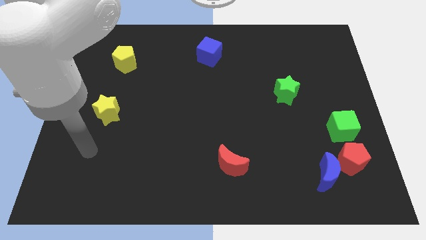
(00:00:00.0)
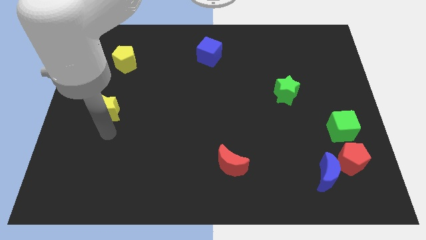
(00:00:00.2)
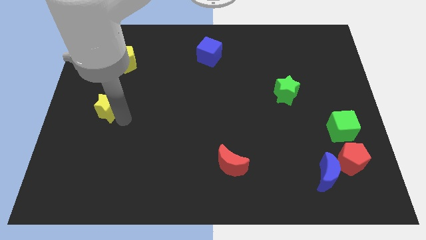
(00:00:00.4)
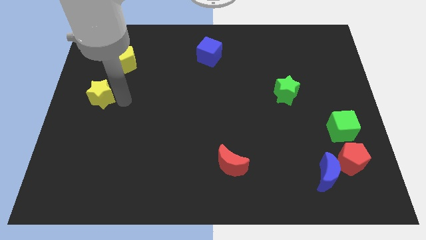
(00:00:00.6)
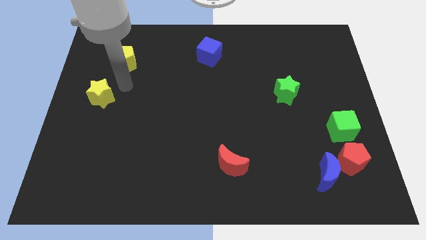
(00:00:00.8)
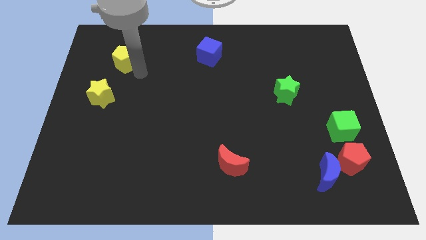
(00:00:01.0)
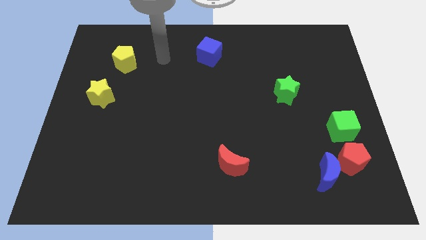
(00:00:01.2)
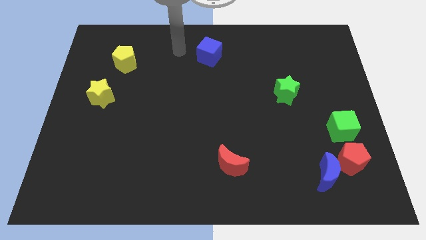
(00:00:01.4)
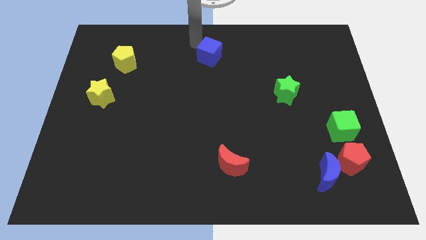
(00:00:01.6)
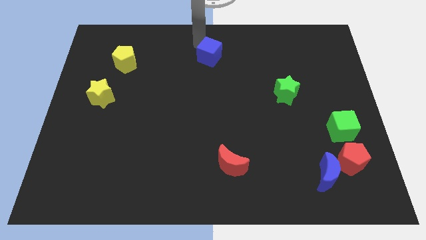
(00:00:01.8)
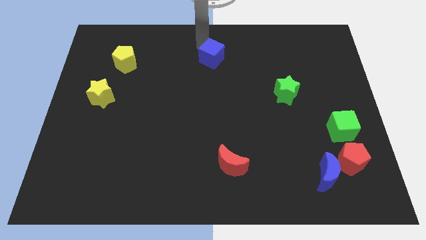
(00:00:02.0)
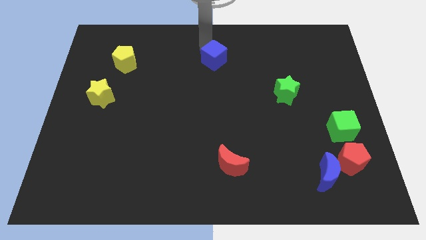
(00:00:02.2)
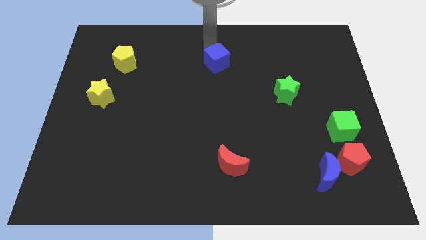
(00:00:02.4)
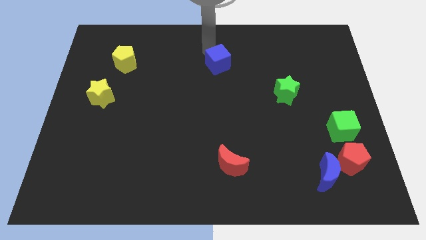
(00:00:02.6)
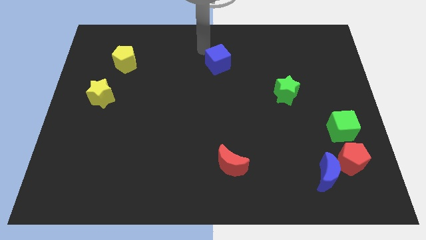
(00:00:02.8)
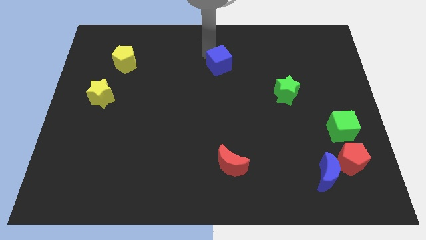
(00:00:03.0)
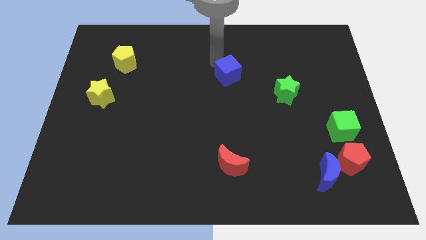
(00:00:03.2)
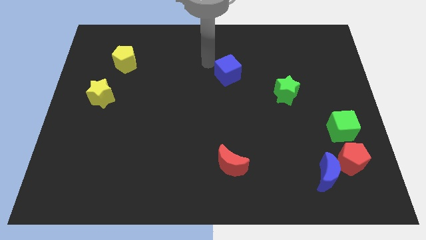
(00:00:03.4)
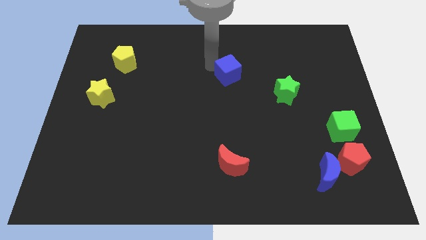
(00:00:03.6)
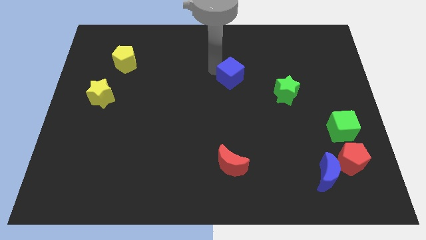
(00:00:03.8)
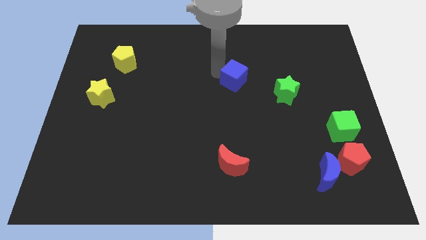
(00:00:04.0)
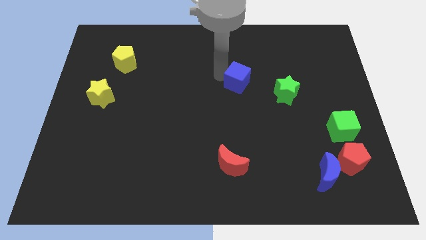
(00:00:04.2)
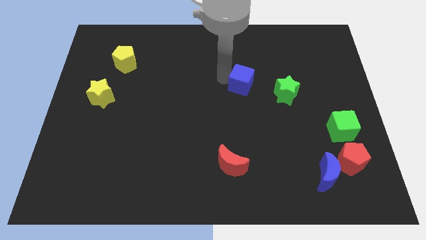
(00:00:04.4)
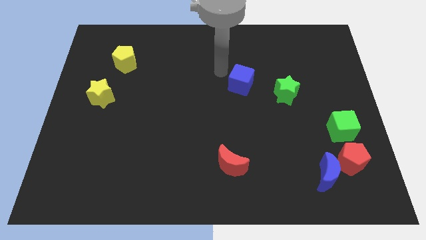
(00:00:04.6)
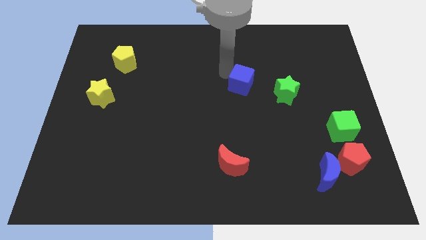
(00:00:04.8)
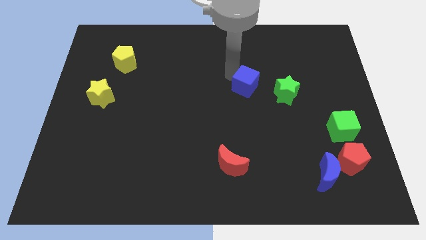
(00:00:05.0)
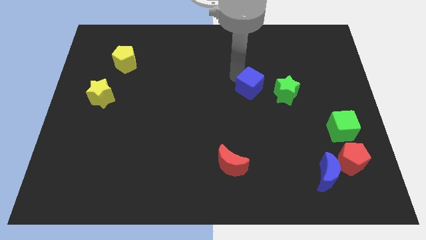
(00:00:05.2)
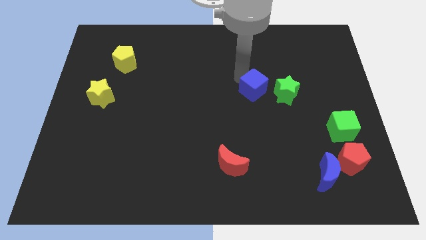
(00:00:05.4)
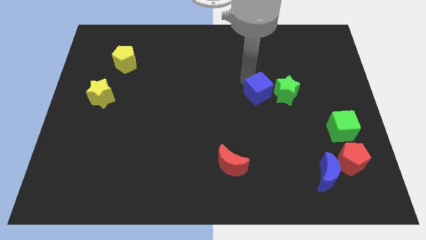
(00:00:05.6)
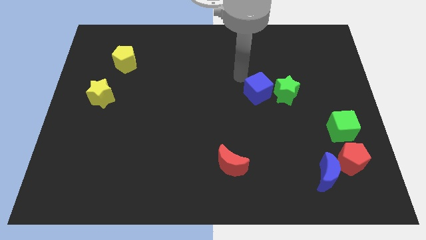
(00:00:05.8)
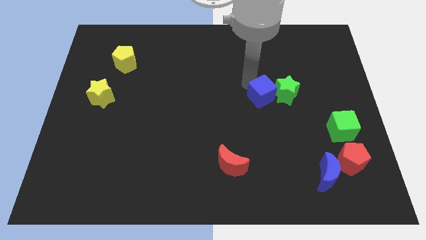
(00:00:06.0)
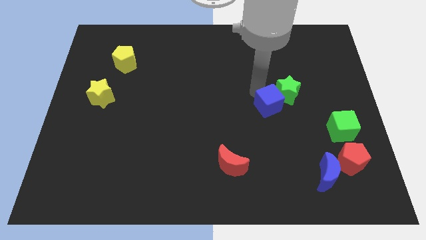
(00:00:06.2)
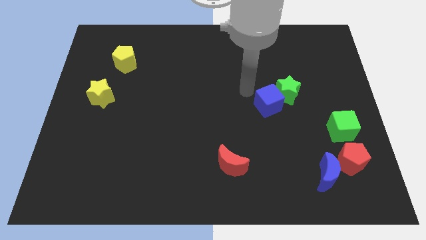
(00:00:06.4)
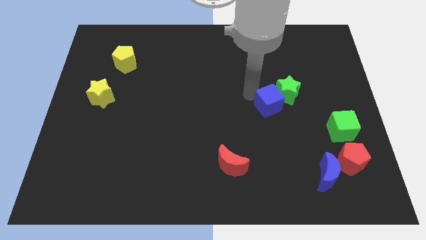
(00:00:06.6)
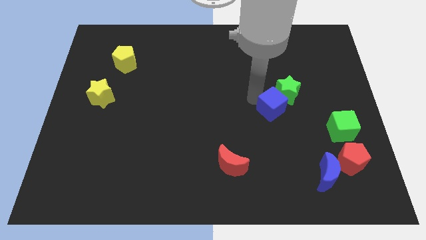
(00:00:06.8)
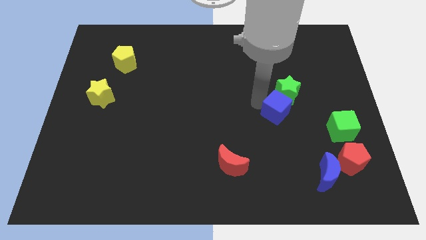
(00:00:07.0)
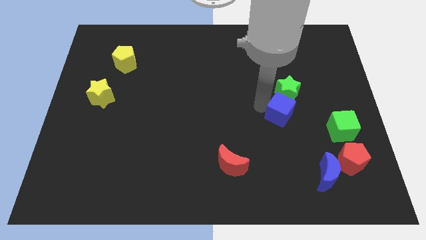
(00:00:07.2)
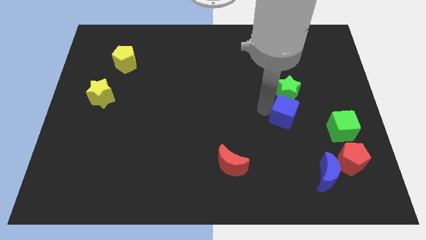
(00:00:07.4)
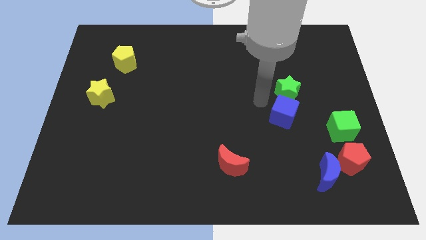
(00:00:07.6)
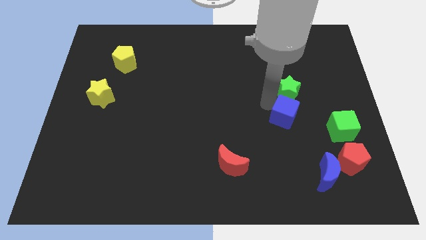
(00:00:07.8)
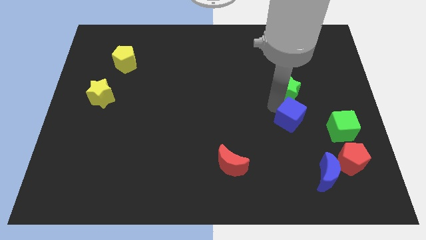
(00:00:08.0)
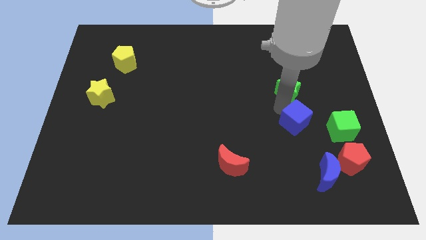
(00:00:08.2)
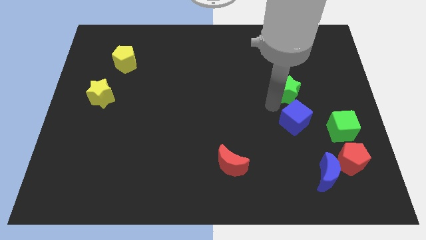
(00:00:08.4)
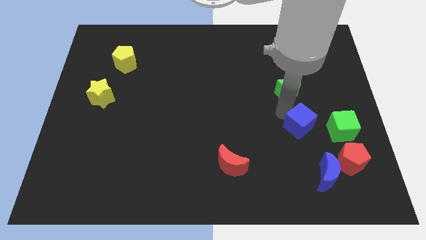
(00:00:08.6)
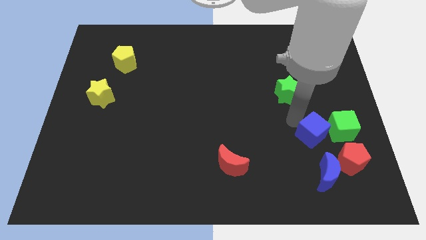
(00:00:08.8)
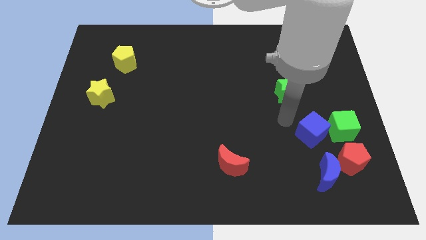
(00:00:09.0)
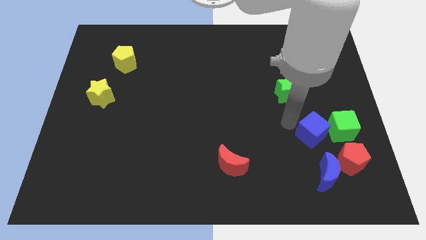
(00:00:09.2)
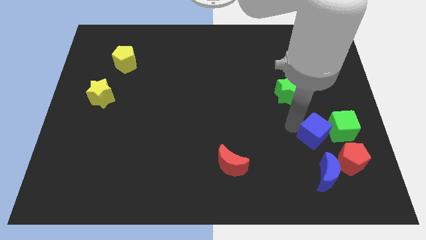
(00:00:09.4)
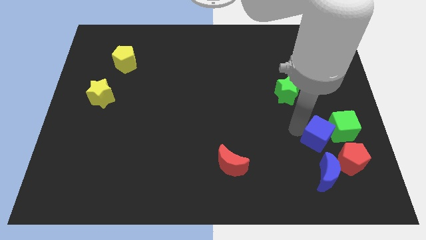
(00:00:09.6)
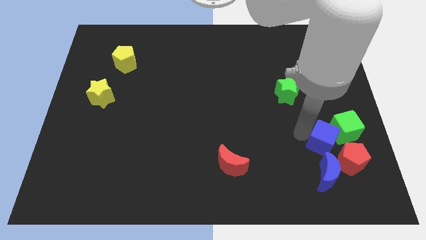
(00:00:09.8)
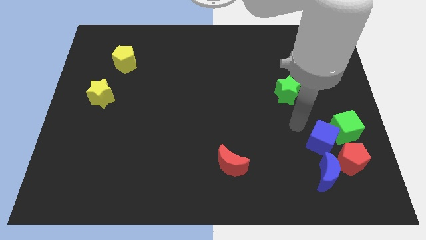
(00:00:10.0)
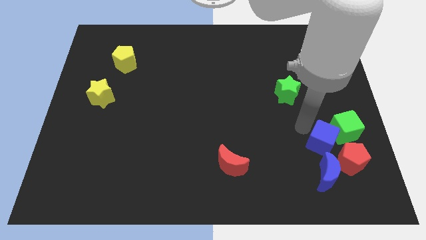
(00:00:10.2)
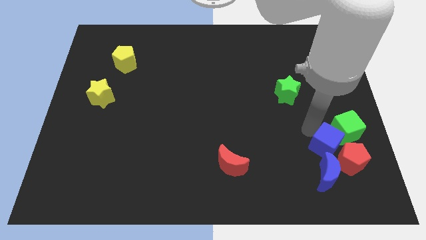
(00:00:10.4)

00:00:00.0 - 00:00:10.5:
slide the blue cube to the red pentagon

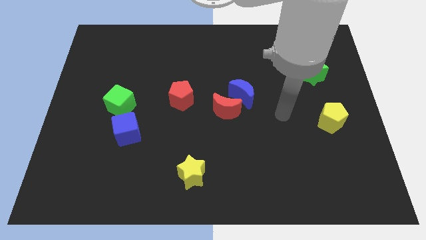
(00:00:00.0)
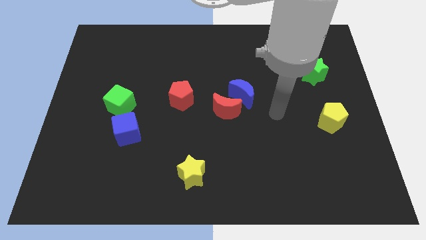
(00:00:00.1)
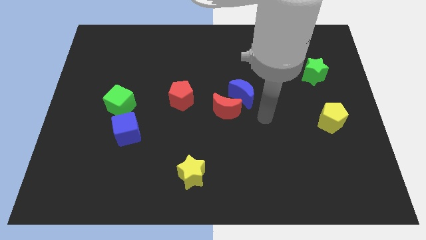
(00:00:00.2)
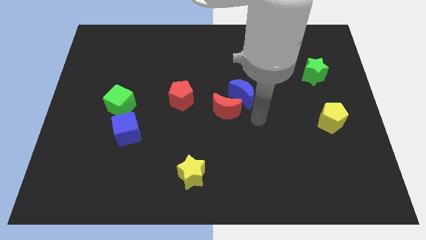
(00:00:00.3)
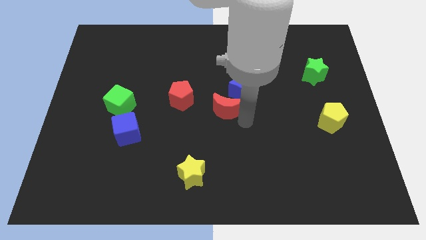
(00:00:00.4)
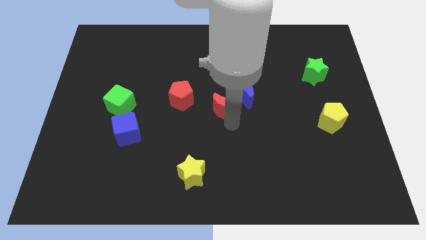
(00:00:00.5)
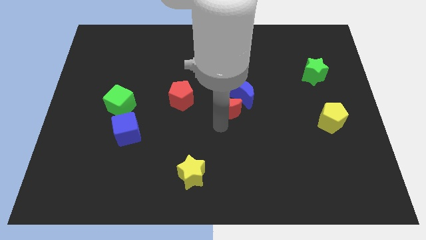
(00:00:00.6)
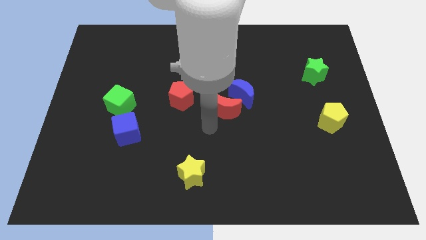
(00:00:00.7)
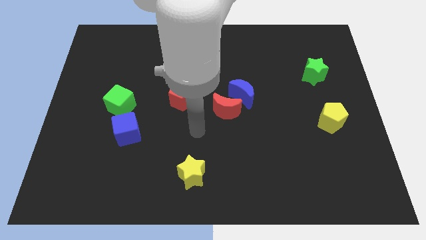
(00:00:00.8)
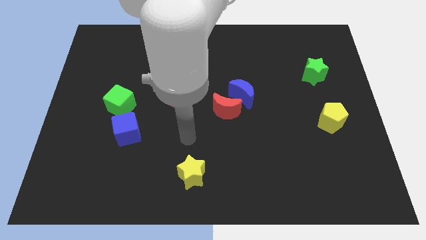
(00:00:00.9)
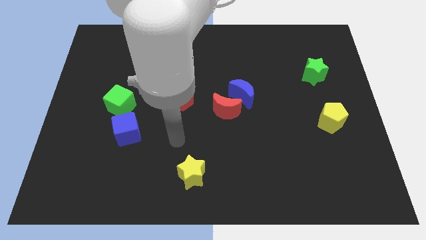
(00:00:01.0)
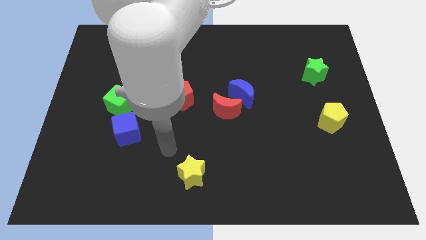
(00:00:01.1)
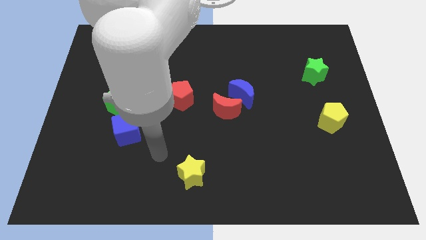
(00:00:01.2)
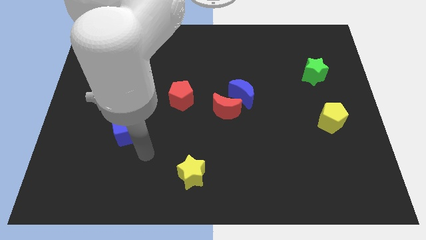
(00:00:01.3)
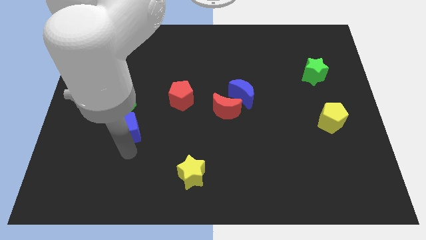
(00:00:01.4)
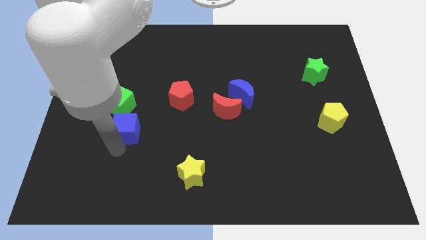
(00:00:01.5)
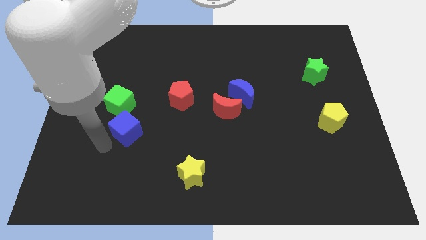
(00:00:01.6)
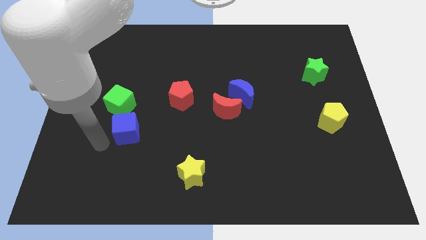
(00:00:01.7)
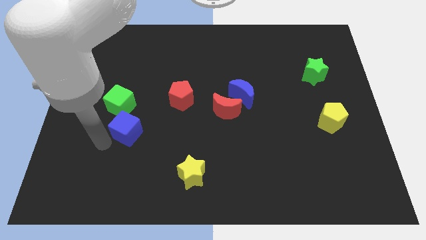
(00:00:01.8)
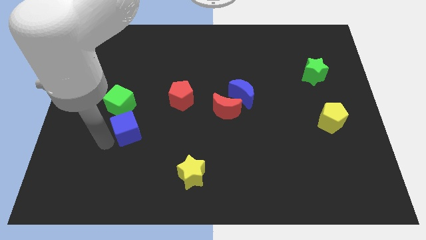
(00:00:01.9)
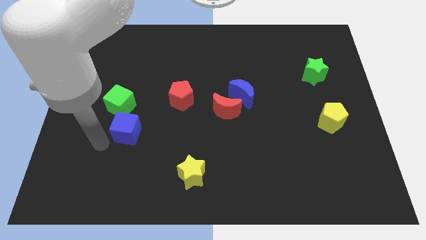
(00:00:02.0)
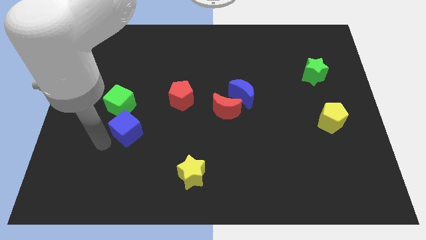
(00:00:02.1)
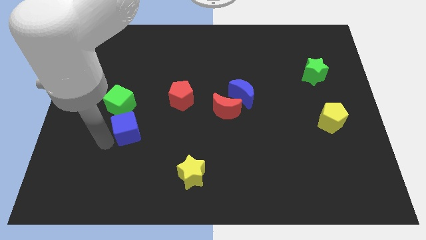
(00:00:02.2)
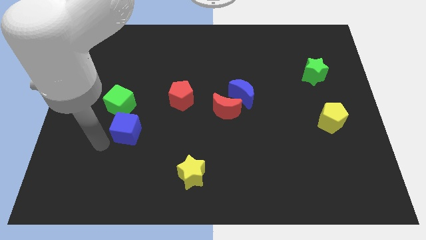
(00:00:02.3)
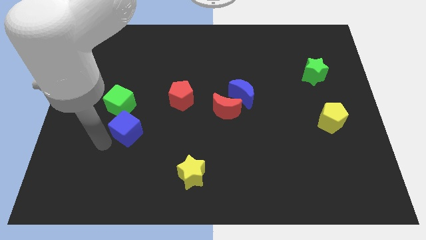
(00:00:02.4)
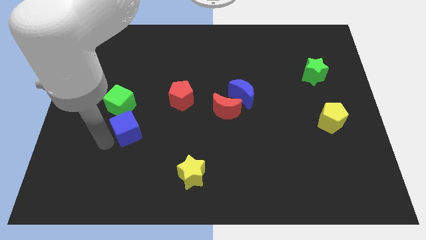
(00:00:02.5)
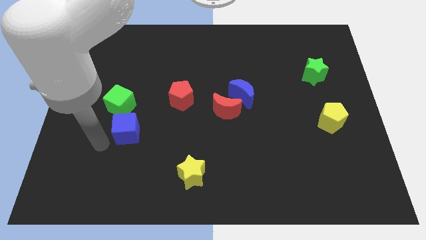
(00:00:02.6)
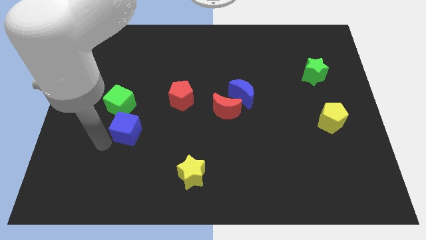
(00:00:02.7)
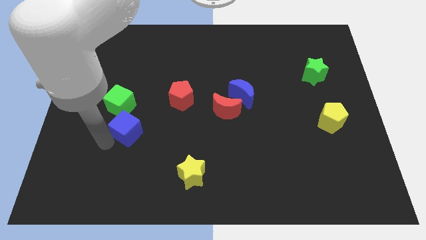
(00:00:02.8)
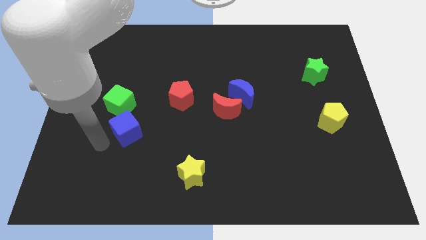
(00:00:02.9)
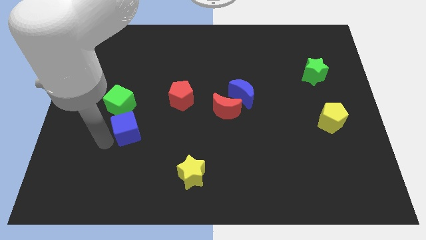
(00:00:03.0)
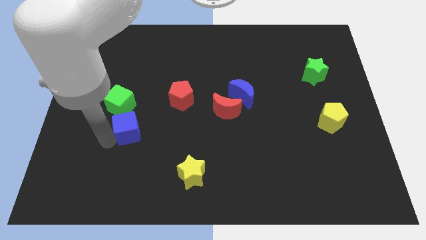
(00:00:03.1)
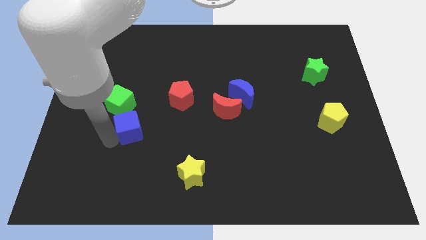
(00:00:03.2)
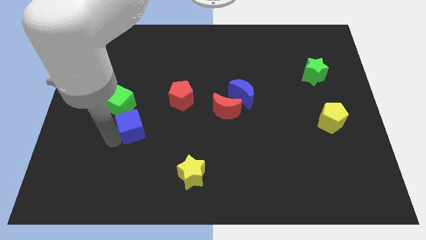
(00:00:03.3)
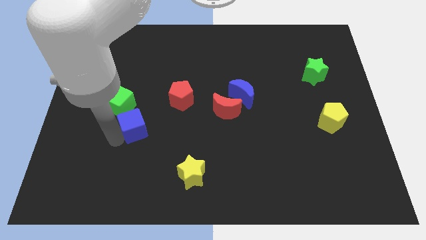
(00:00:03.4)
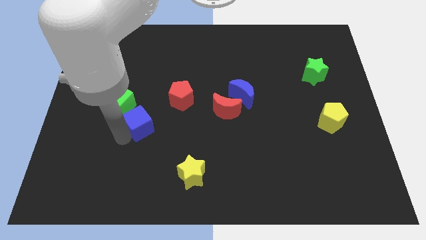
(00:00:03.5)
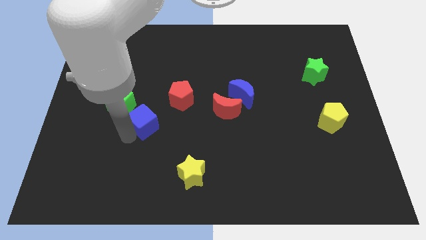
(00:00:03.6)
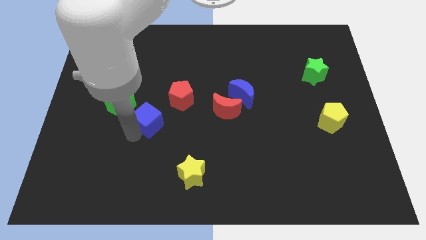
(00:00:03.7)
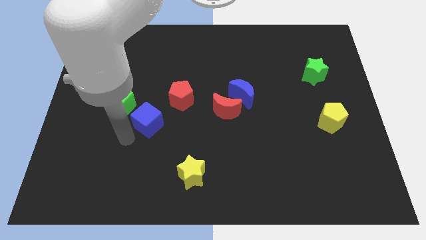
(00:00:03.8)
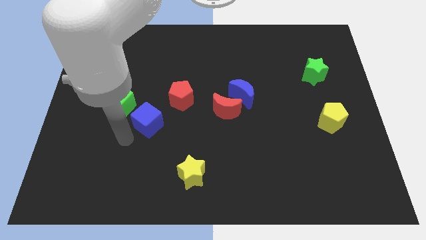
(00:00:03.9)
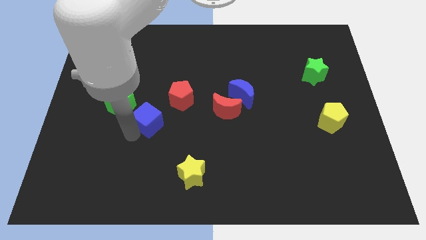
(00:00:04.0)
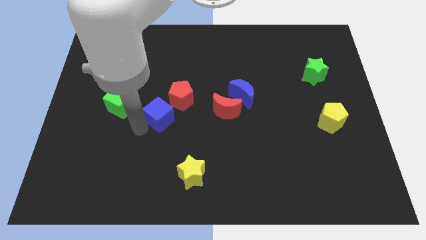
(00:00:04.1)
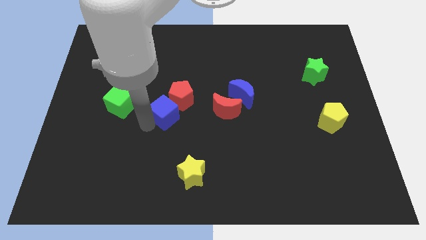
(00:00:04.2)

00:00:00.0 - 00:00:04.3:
move the blue cube towards the red pentagon
